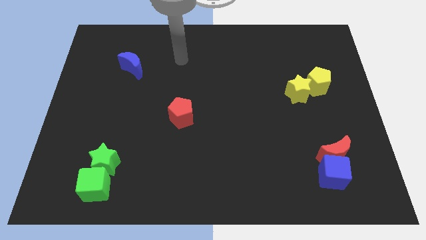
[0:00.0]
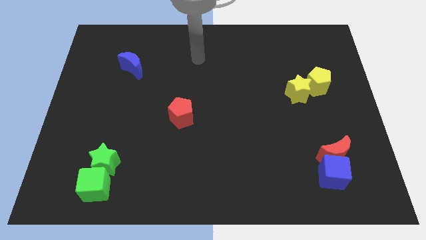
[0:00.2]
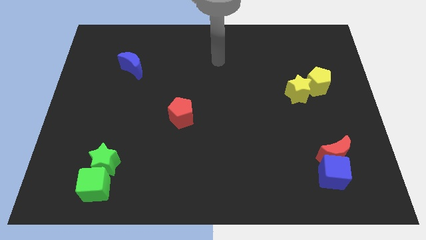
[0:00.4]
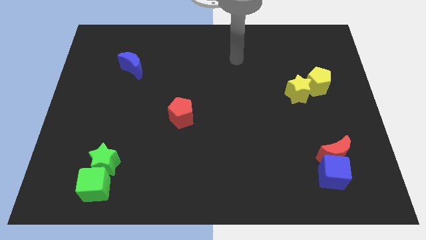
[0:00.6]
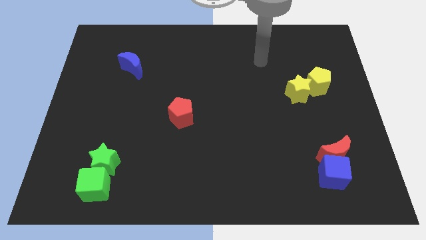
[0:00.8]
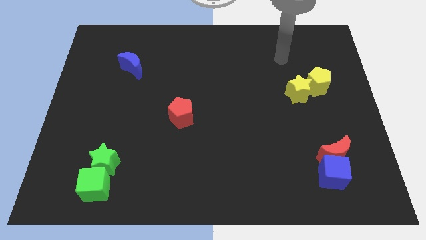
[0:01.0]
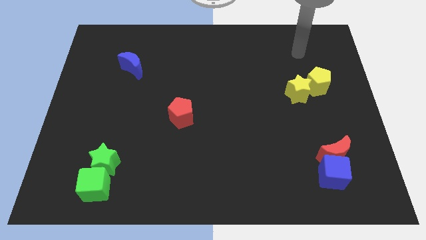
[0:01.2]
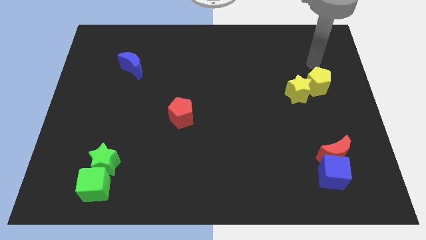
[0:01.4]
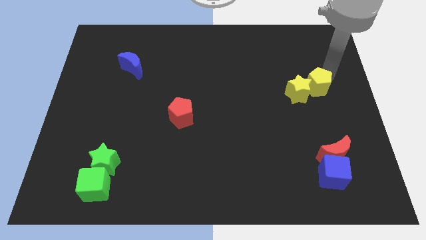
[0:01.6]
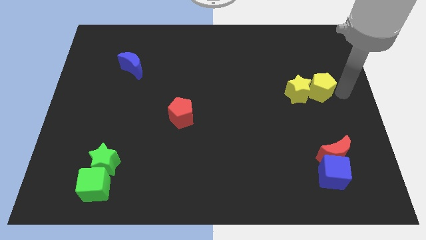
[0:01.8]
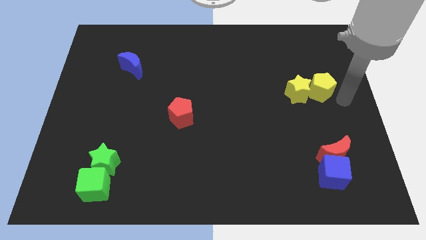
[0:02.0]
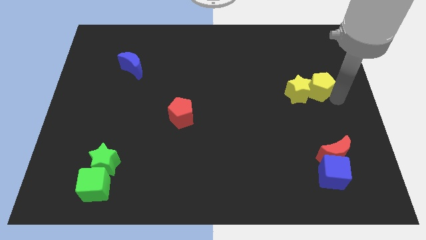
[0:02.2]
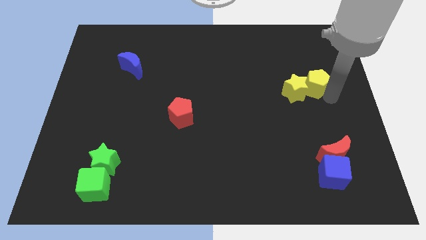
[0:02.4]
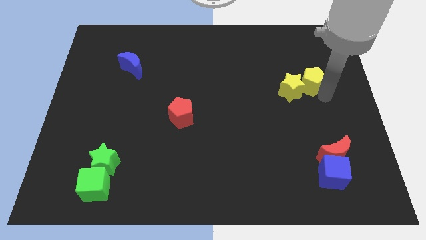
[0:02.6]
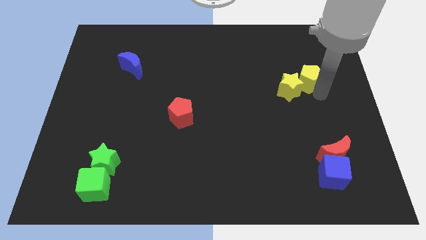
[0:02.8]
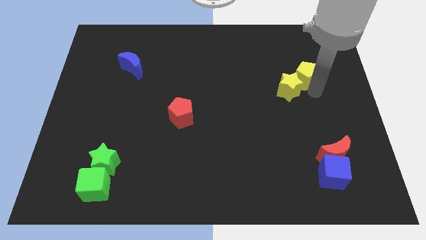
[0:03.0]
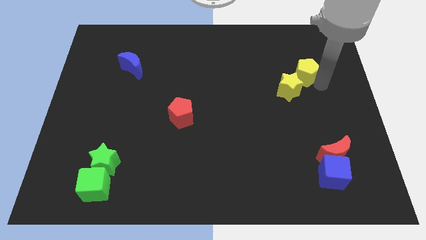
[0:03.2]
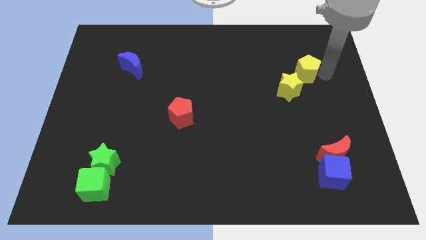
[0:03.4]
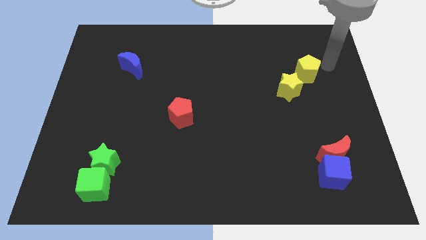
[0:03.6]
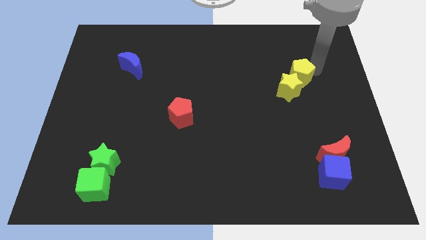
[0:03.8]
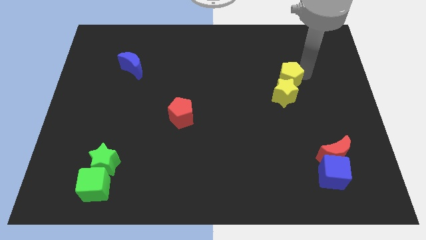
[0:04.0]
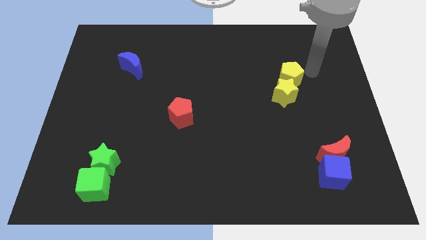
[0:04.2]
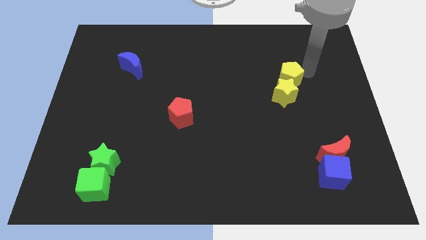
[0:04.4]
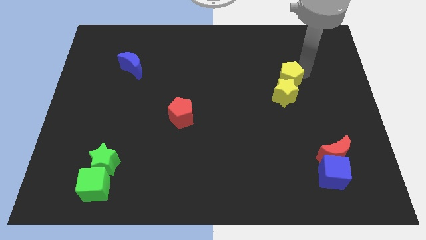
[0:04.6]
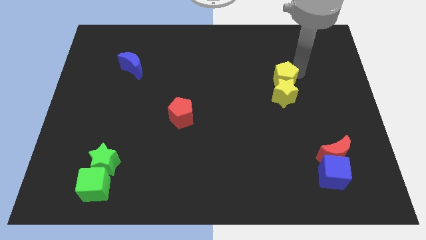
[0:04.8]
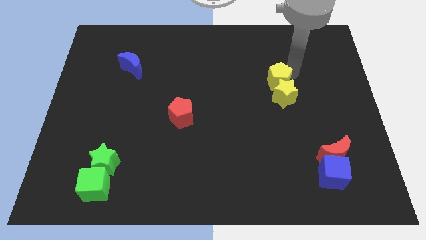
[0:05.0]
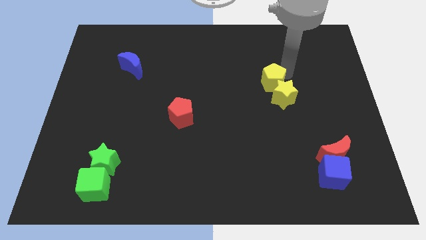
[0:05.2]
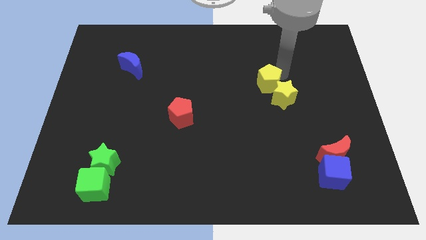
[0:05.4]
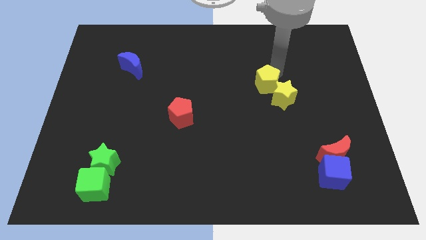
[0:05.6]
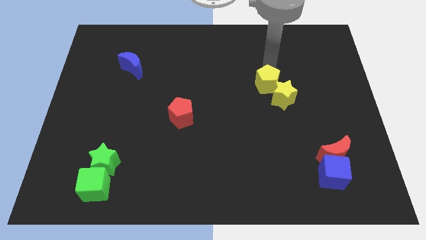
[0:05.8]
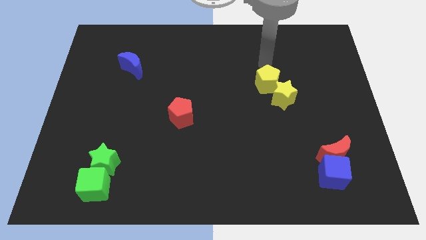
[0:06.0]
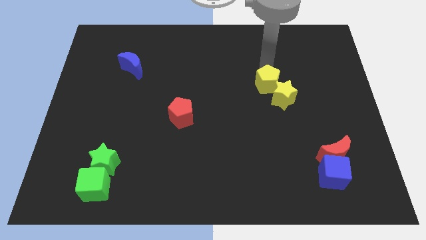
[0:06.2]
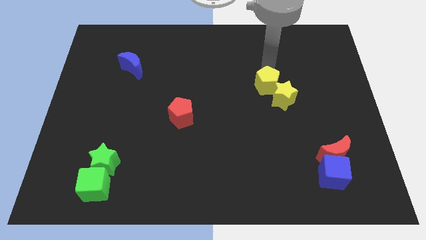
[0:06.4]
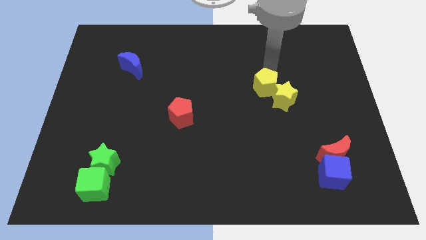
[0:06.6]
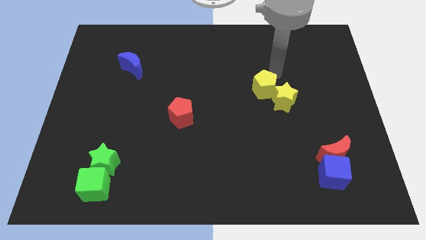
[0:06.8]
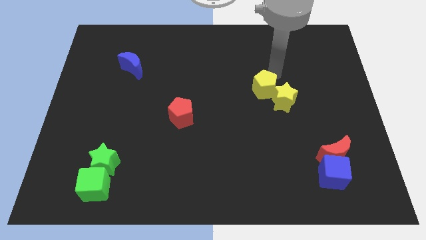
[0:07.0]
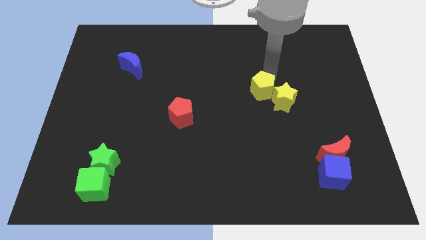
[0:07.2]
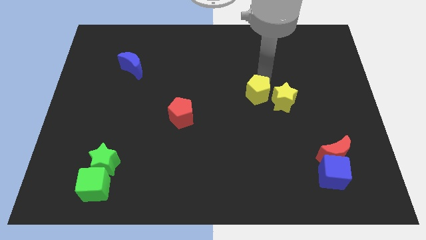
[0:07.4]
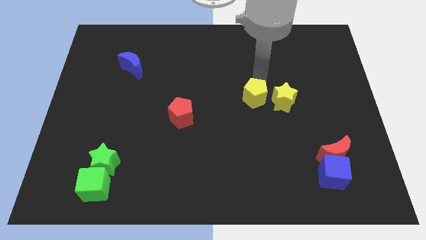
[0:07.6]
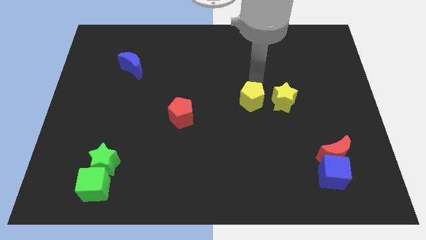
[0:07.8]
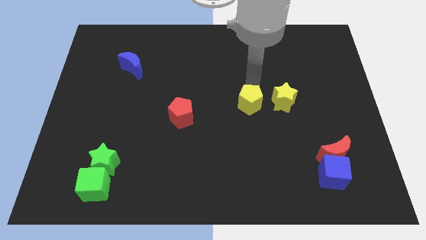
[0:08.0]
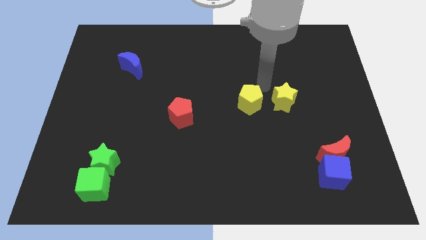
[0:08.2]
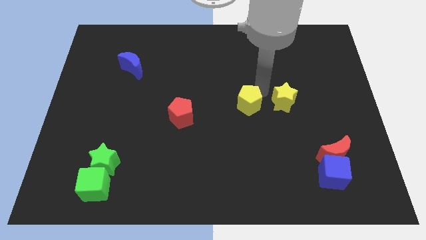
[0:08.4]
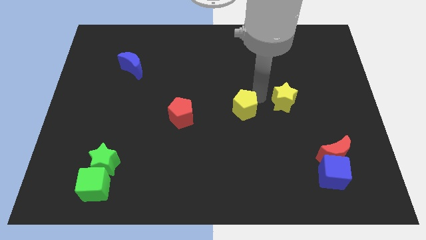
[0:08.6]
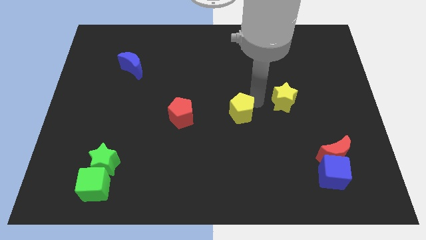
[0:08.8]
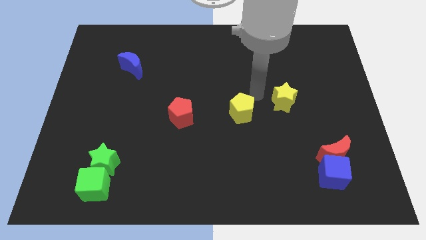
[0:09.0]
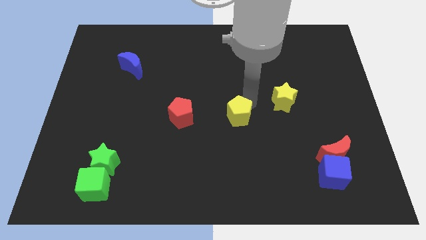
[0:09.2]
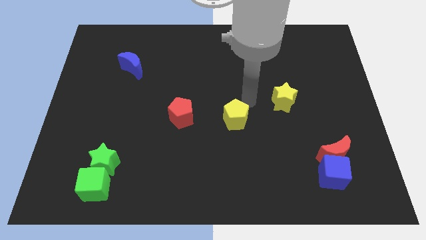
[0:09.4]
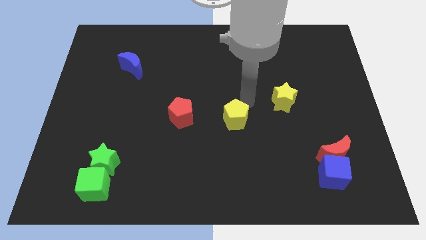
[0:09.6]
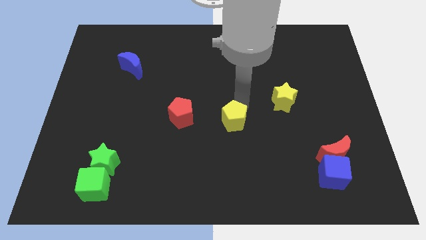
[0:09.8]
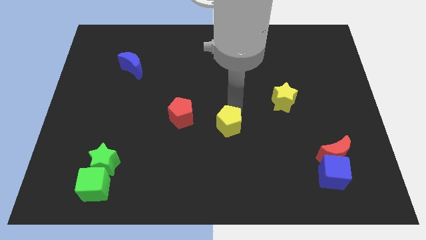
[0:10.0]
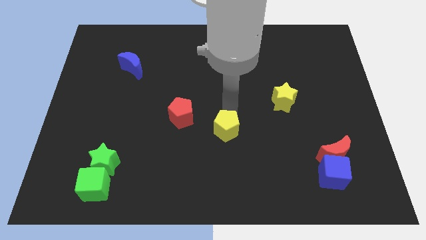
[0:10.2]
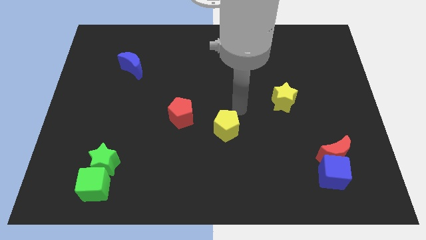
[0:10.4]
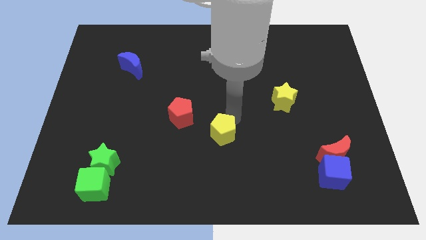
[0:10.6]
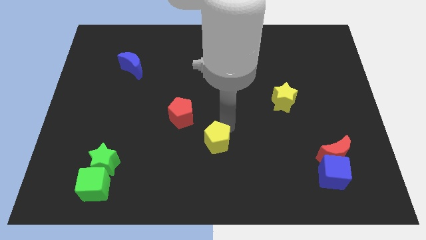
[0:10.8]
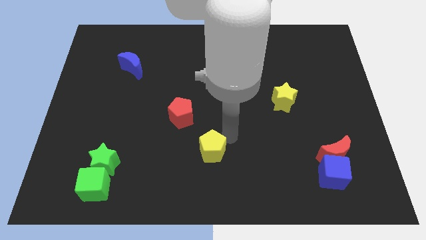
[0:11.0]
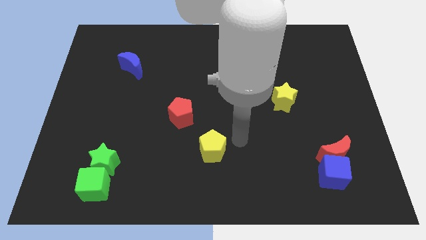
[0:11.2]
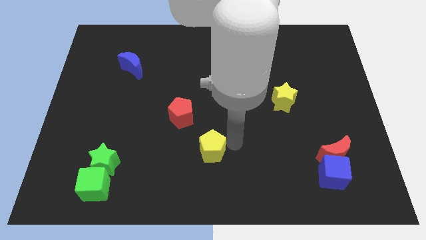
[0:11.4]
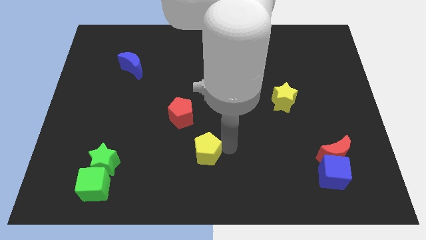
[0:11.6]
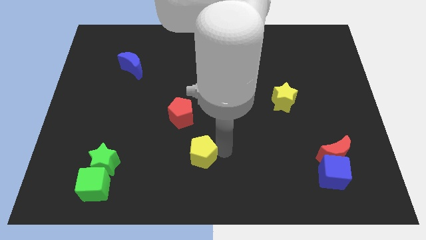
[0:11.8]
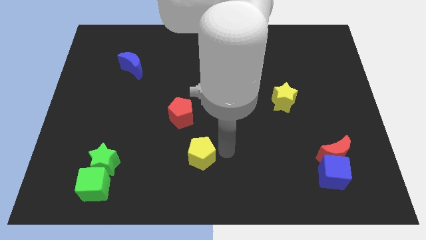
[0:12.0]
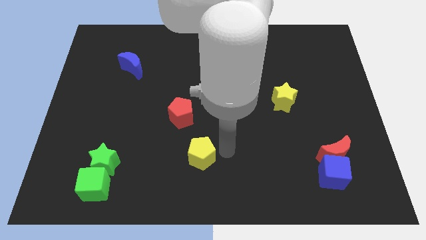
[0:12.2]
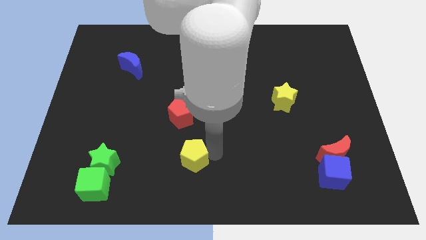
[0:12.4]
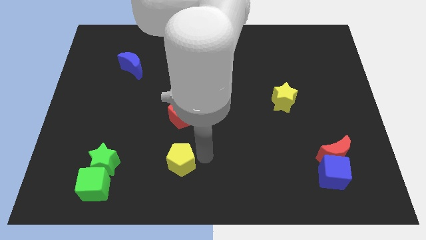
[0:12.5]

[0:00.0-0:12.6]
put the yellow pentagon right of the green star

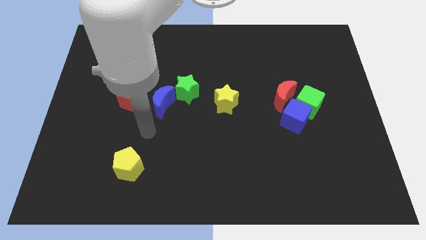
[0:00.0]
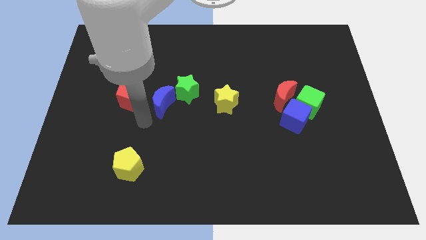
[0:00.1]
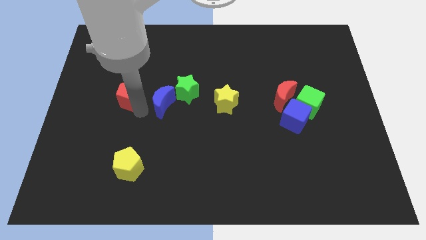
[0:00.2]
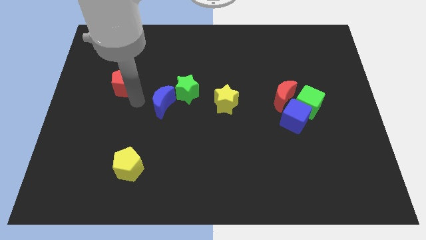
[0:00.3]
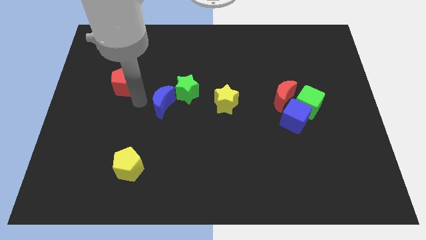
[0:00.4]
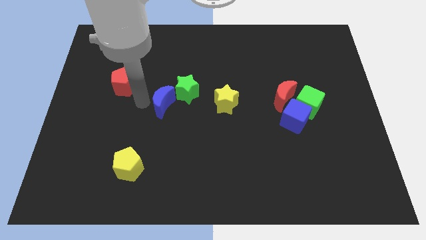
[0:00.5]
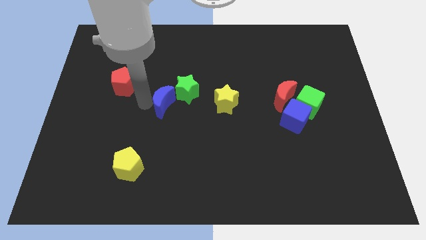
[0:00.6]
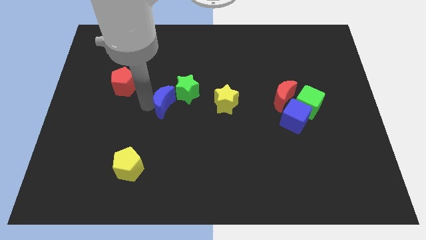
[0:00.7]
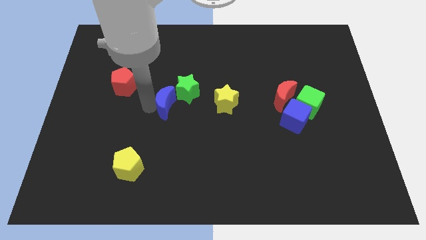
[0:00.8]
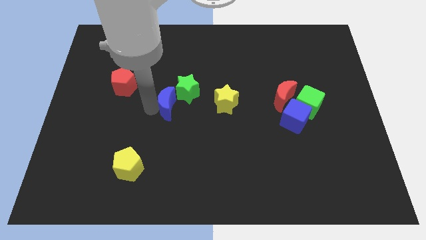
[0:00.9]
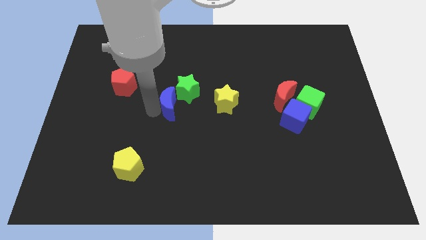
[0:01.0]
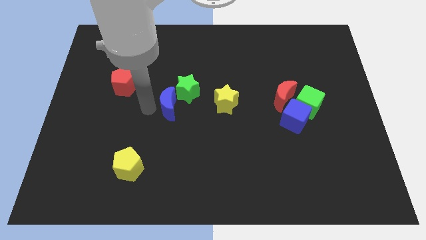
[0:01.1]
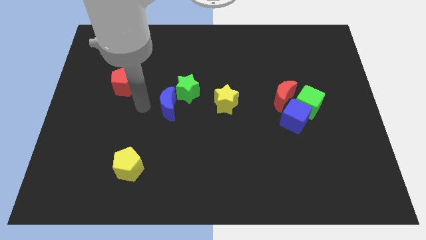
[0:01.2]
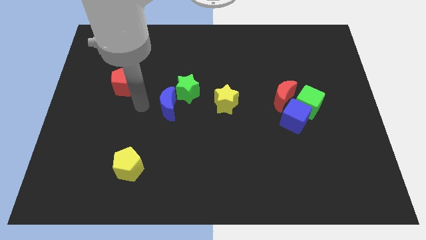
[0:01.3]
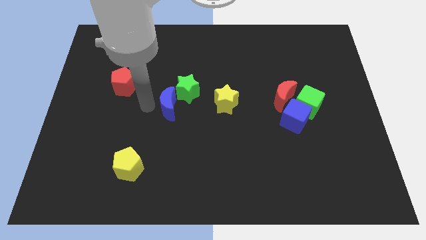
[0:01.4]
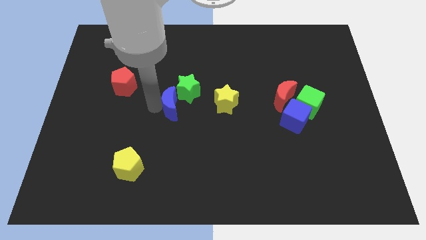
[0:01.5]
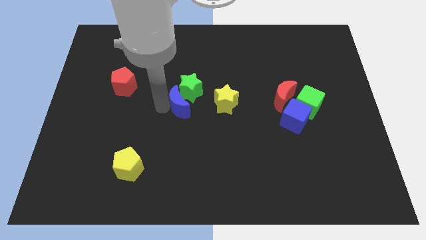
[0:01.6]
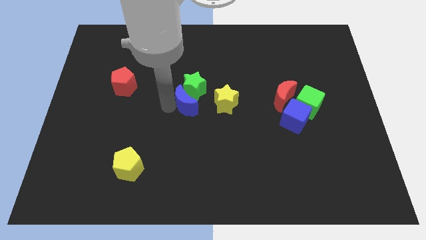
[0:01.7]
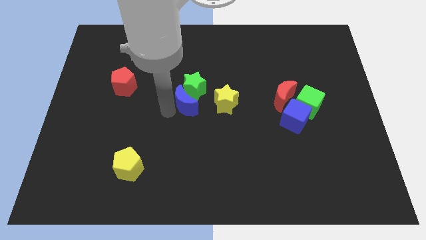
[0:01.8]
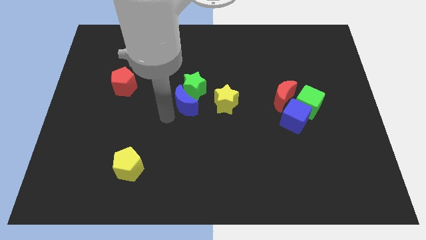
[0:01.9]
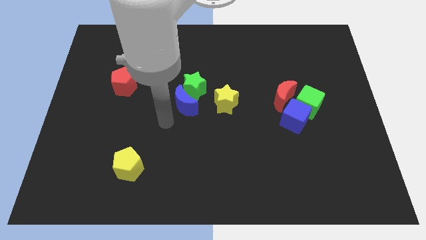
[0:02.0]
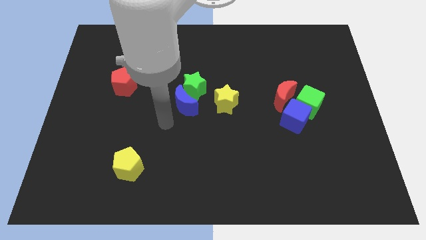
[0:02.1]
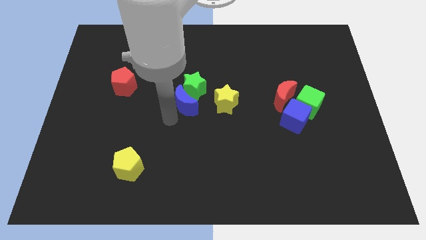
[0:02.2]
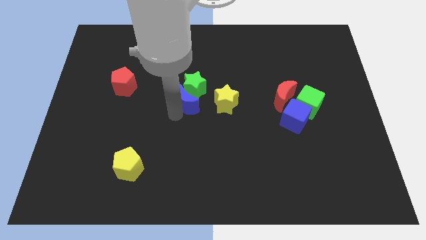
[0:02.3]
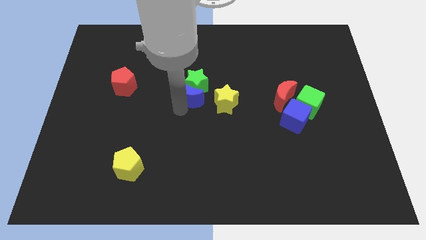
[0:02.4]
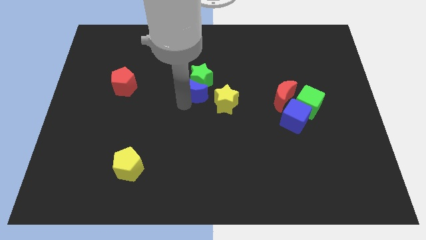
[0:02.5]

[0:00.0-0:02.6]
put the blue moon to the top left of the yellow star
